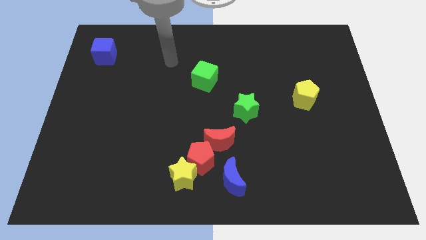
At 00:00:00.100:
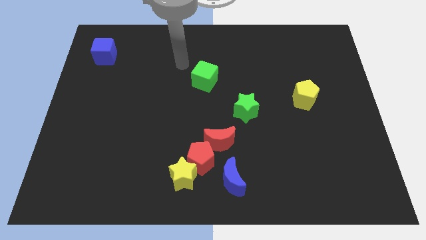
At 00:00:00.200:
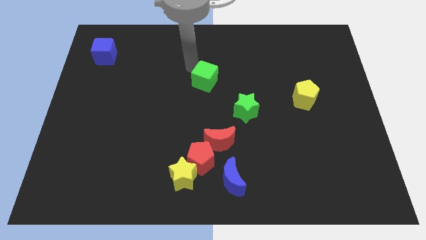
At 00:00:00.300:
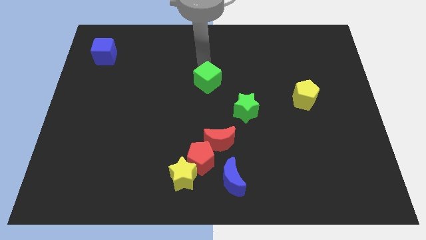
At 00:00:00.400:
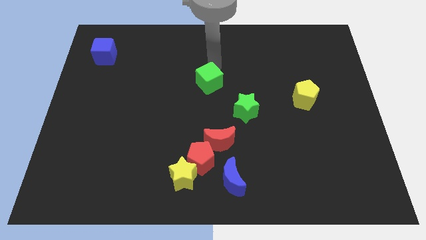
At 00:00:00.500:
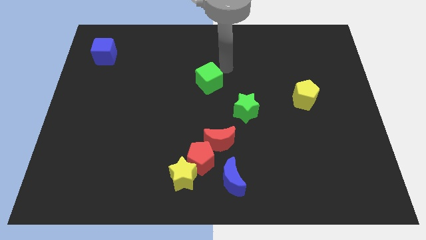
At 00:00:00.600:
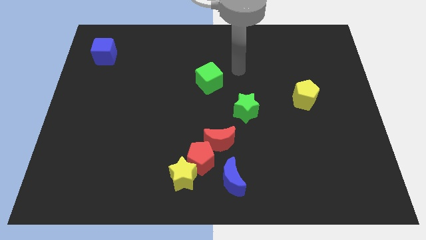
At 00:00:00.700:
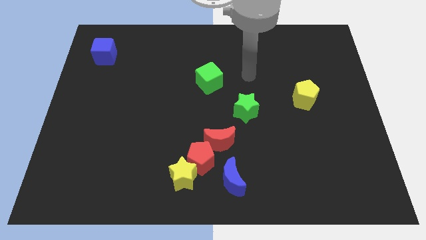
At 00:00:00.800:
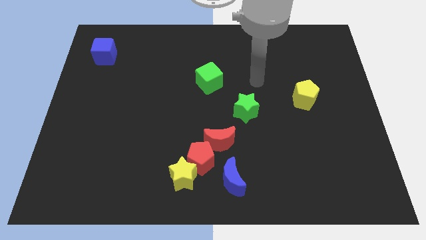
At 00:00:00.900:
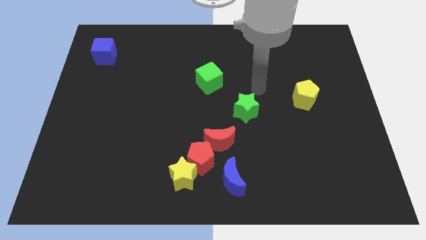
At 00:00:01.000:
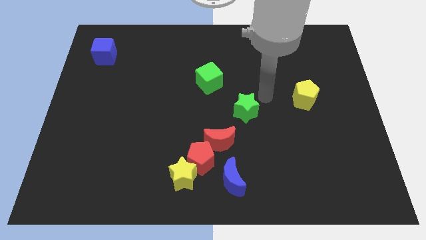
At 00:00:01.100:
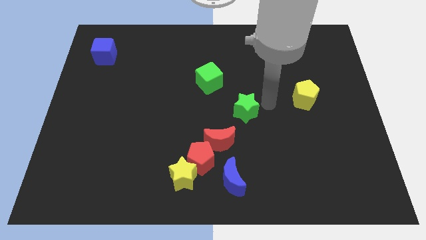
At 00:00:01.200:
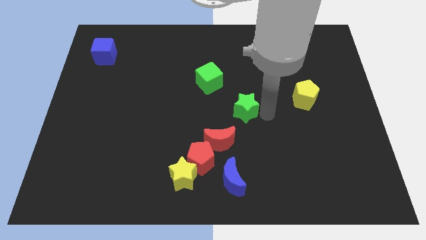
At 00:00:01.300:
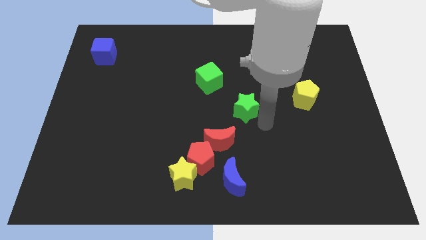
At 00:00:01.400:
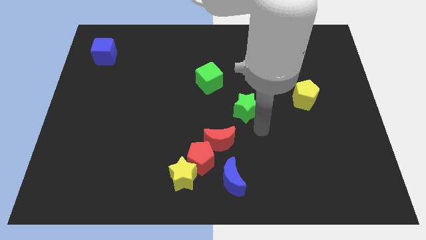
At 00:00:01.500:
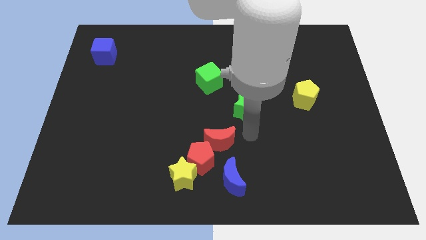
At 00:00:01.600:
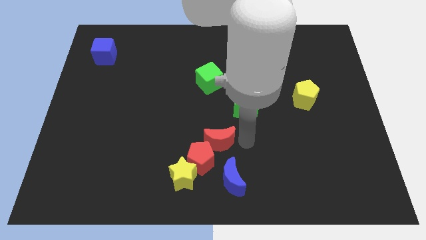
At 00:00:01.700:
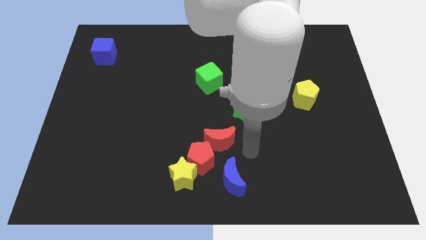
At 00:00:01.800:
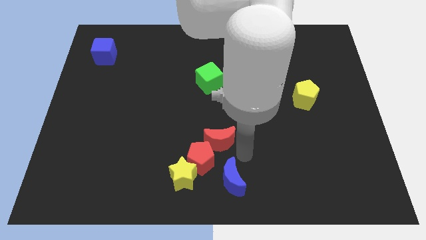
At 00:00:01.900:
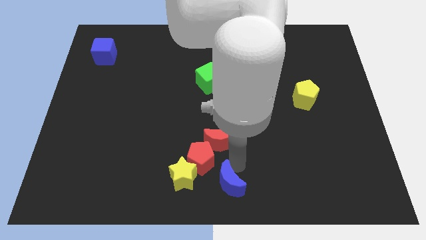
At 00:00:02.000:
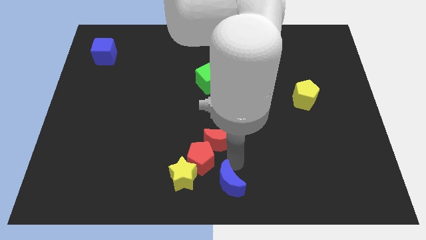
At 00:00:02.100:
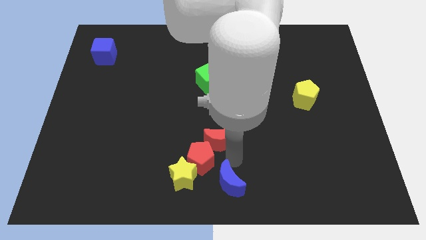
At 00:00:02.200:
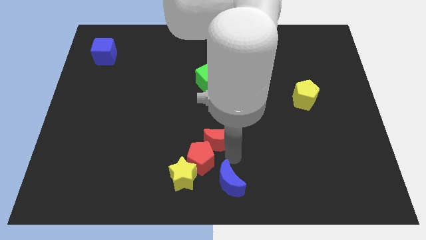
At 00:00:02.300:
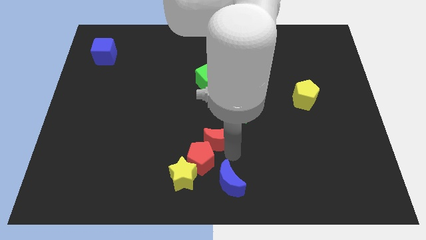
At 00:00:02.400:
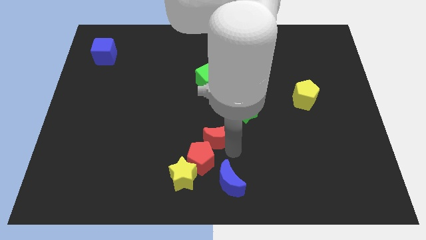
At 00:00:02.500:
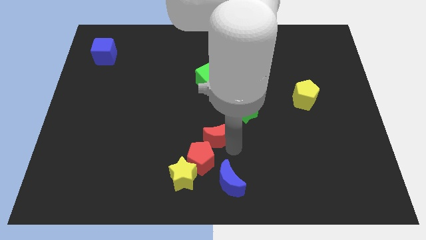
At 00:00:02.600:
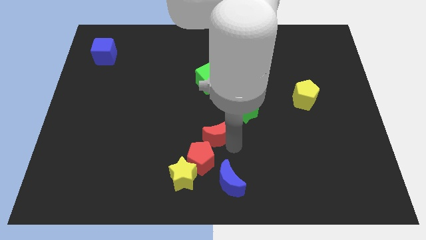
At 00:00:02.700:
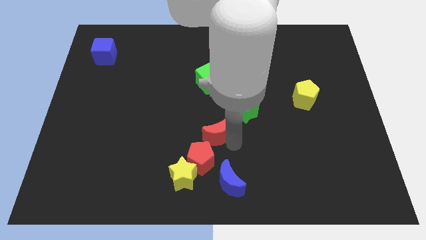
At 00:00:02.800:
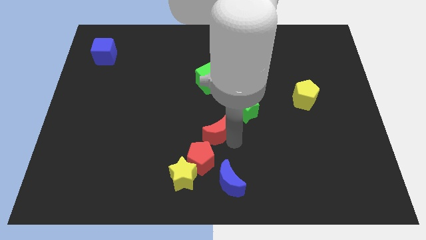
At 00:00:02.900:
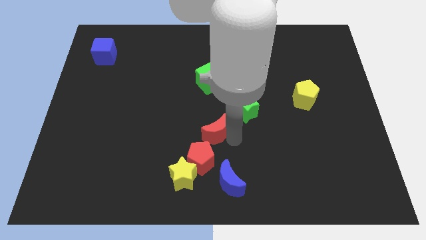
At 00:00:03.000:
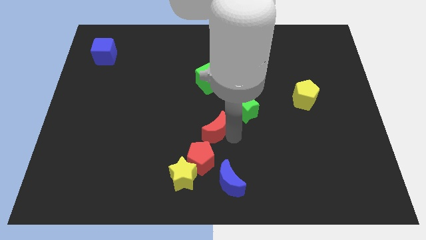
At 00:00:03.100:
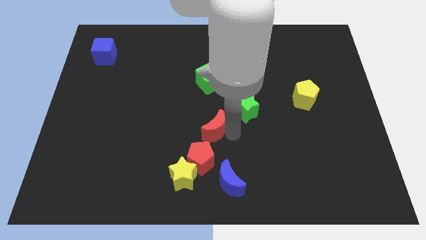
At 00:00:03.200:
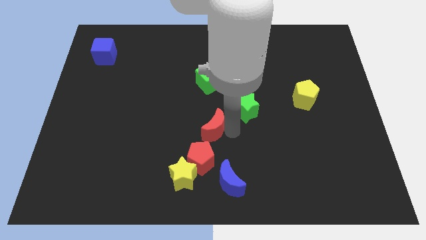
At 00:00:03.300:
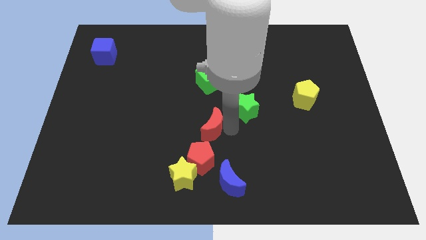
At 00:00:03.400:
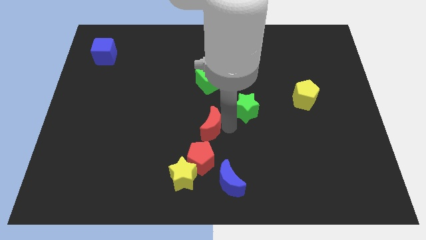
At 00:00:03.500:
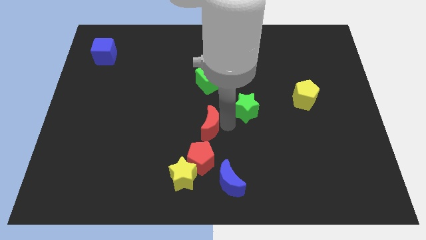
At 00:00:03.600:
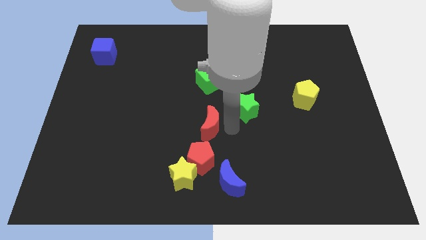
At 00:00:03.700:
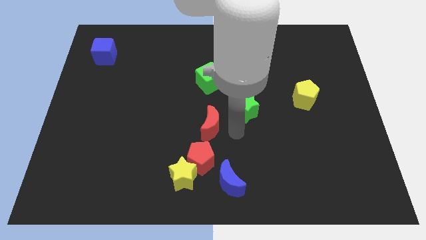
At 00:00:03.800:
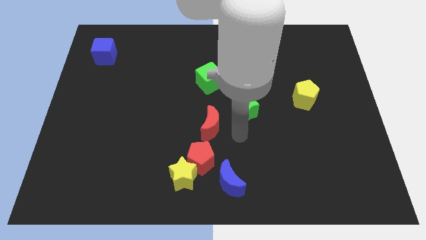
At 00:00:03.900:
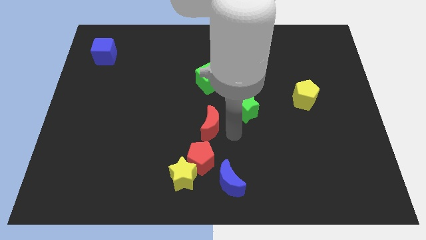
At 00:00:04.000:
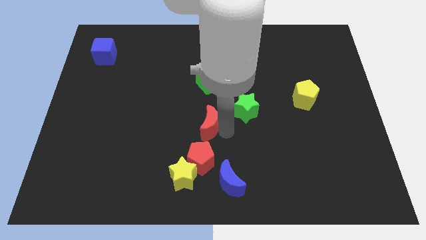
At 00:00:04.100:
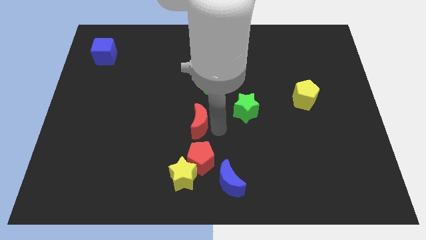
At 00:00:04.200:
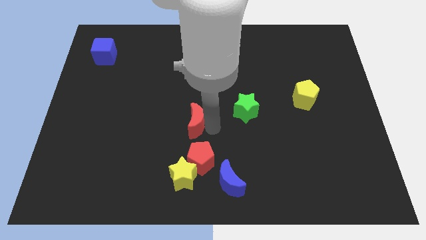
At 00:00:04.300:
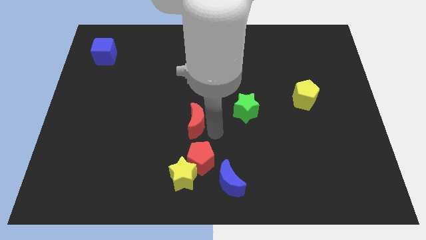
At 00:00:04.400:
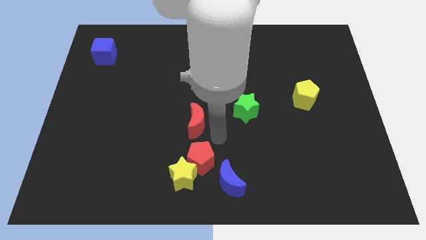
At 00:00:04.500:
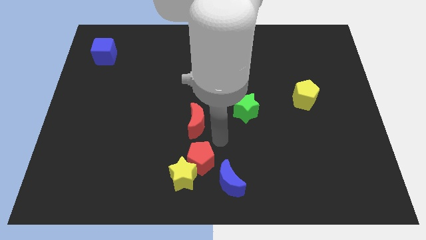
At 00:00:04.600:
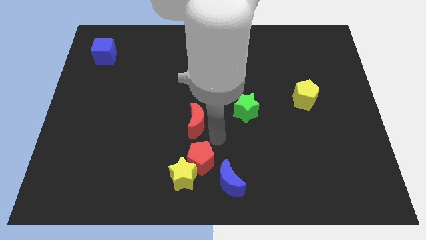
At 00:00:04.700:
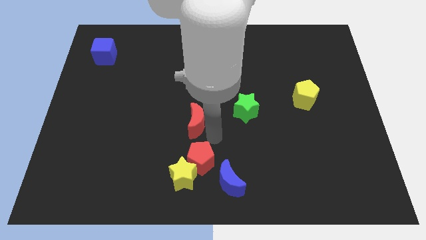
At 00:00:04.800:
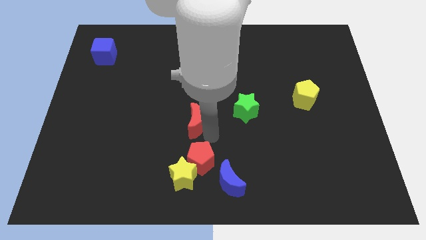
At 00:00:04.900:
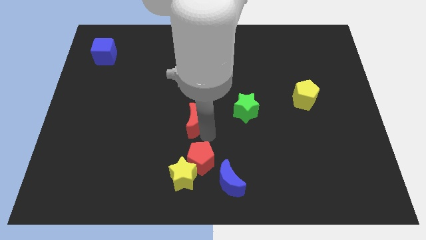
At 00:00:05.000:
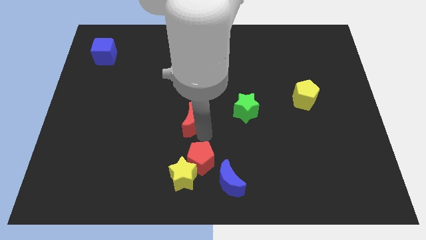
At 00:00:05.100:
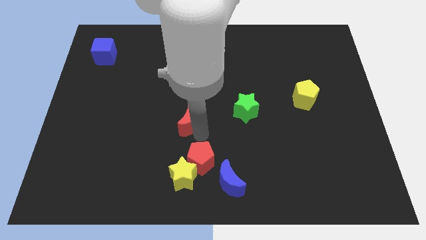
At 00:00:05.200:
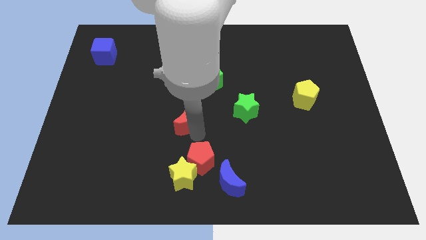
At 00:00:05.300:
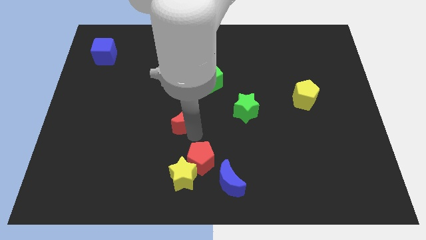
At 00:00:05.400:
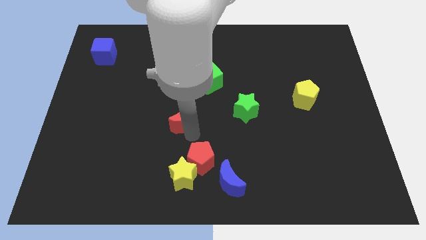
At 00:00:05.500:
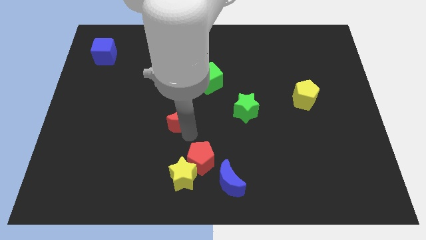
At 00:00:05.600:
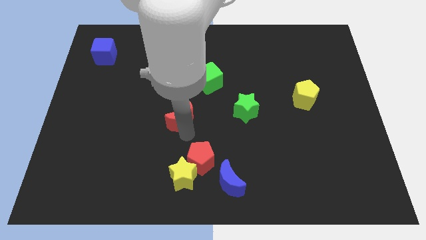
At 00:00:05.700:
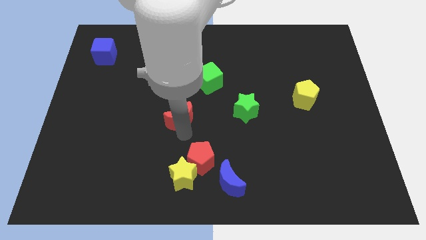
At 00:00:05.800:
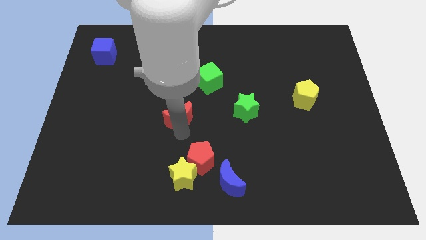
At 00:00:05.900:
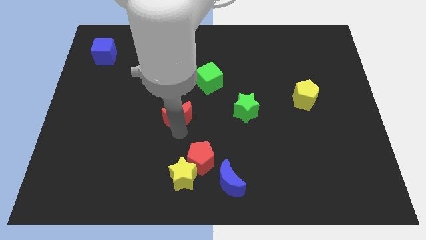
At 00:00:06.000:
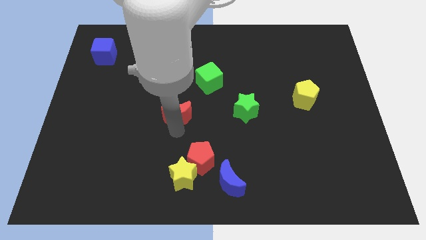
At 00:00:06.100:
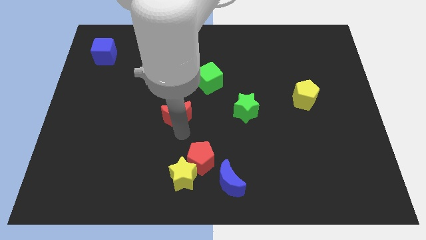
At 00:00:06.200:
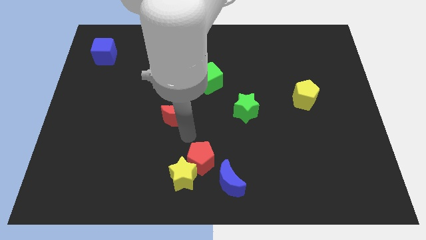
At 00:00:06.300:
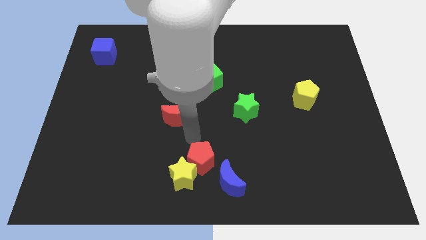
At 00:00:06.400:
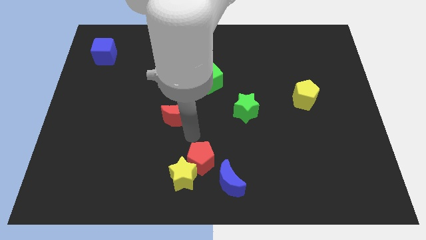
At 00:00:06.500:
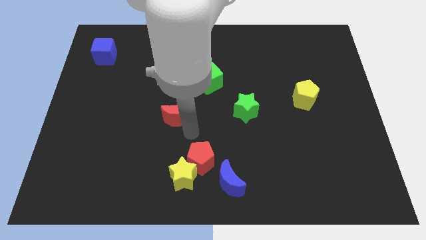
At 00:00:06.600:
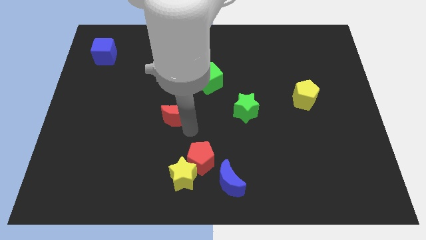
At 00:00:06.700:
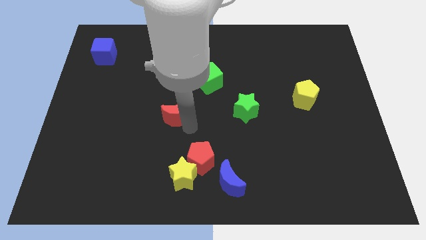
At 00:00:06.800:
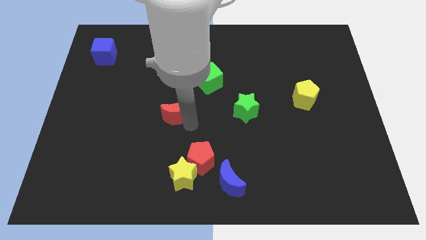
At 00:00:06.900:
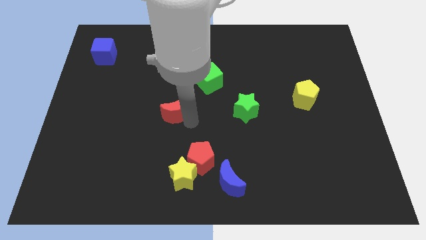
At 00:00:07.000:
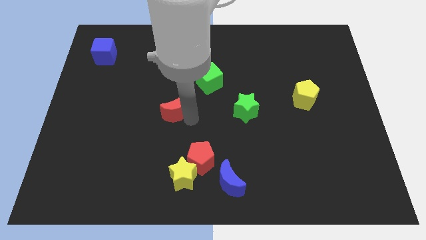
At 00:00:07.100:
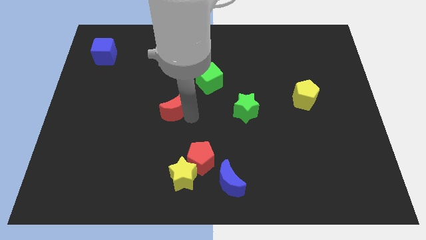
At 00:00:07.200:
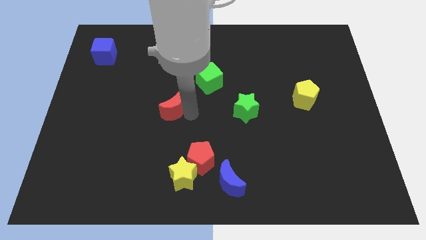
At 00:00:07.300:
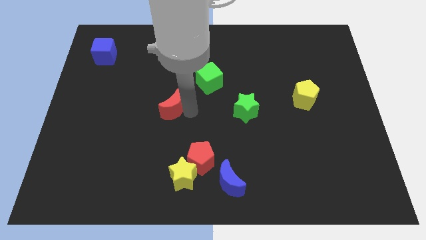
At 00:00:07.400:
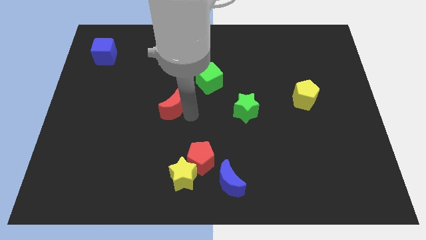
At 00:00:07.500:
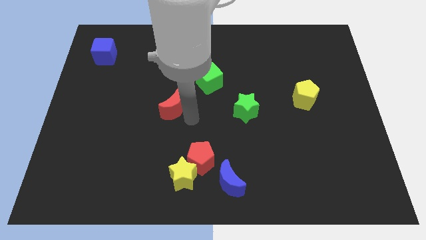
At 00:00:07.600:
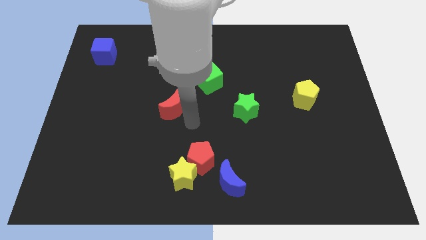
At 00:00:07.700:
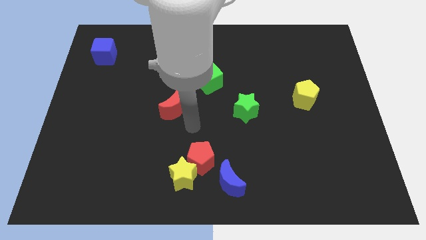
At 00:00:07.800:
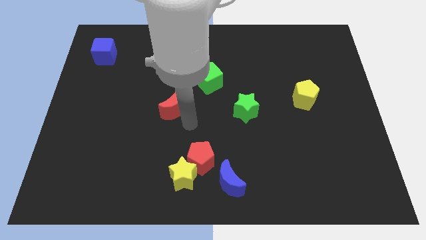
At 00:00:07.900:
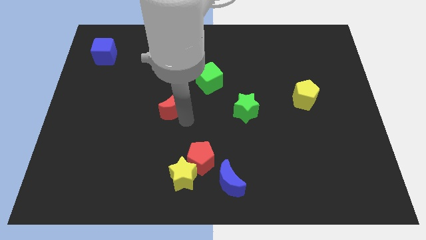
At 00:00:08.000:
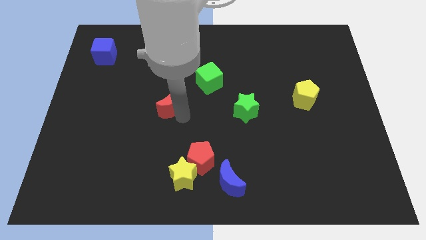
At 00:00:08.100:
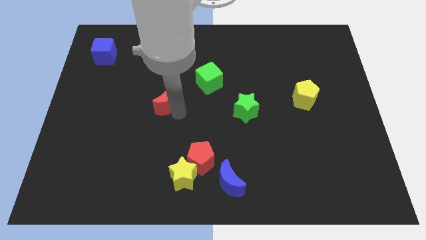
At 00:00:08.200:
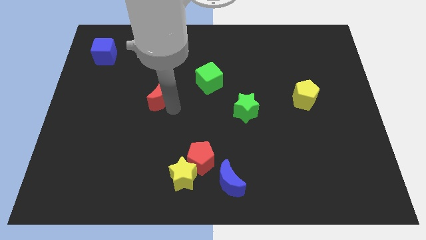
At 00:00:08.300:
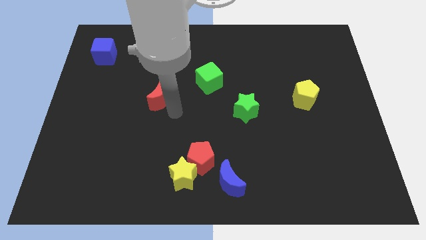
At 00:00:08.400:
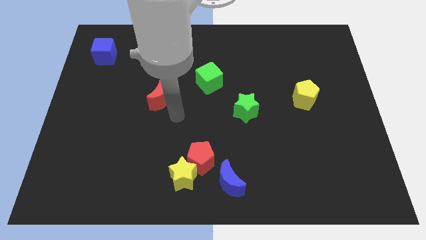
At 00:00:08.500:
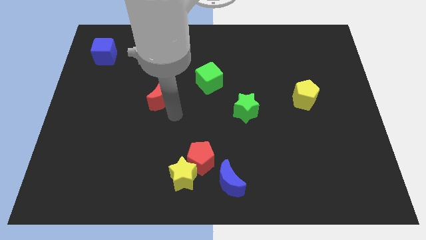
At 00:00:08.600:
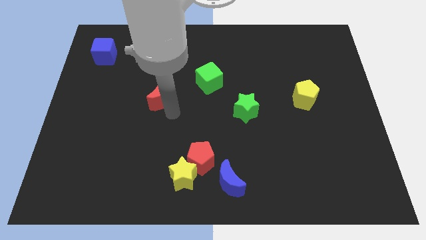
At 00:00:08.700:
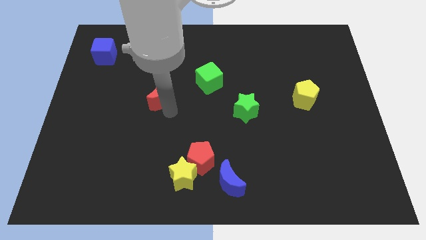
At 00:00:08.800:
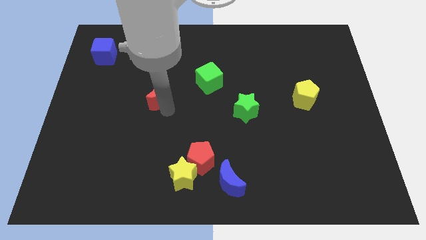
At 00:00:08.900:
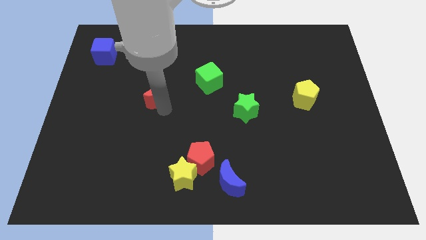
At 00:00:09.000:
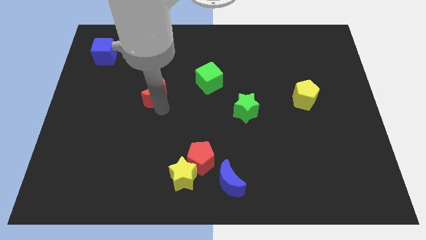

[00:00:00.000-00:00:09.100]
push the red moon up and to the left diagonally
